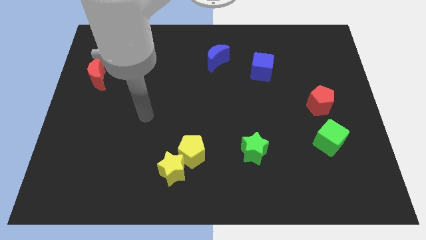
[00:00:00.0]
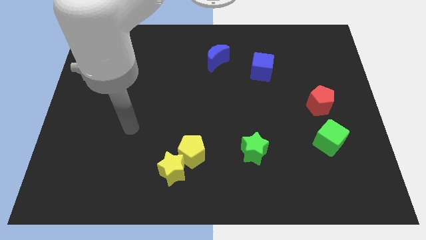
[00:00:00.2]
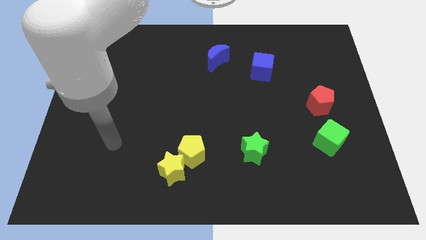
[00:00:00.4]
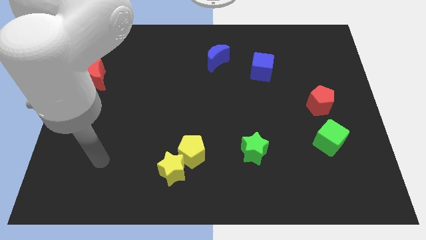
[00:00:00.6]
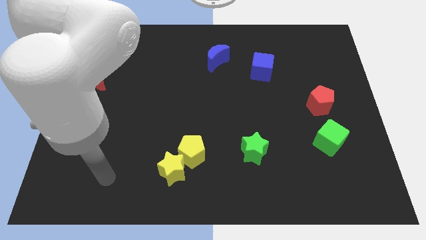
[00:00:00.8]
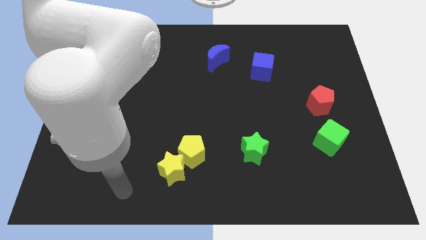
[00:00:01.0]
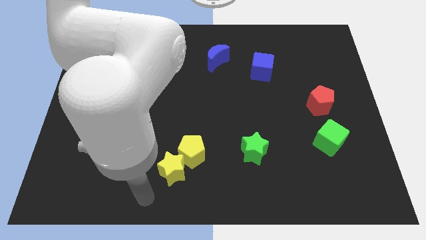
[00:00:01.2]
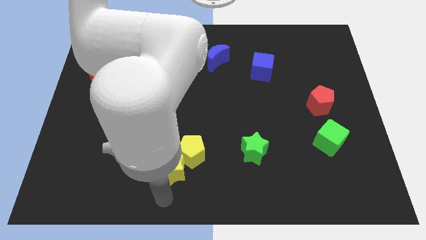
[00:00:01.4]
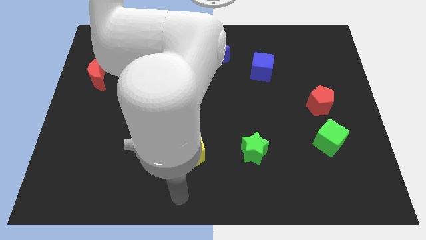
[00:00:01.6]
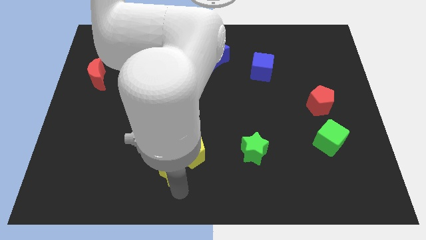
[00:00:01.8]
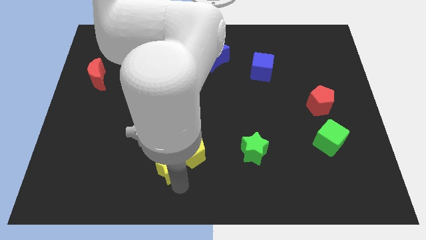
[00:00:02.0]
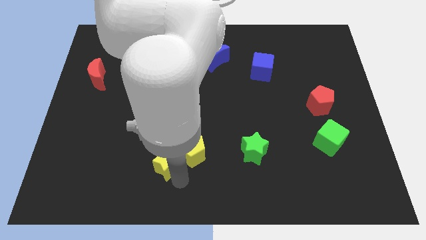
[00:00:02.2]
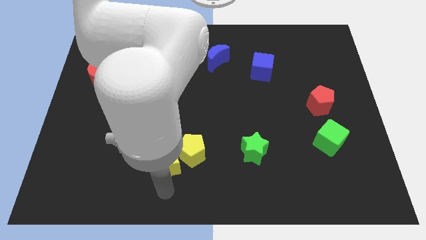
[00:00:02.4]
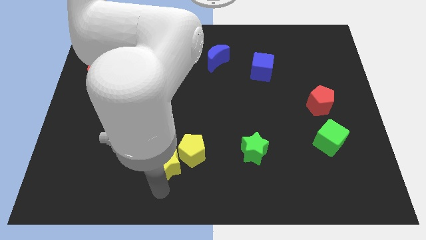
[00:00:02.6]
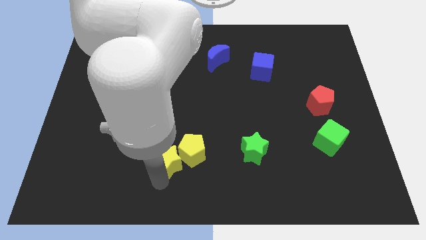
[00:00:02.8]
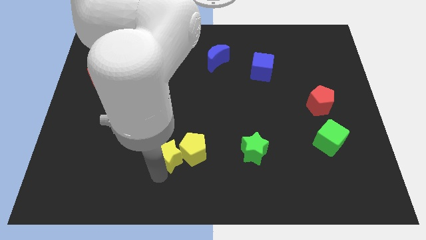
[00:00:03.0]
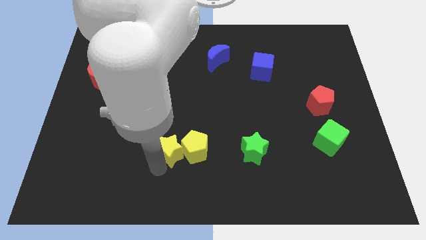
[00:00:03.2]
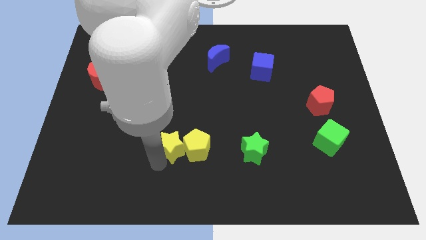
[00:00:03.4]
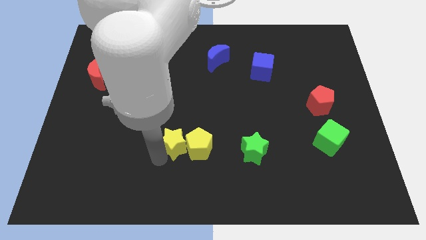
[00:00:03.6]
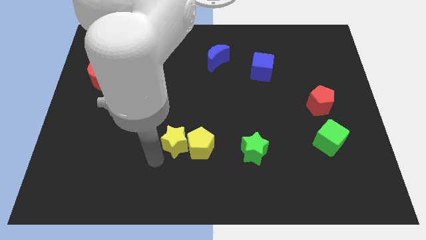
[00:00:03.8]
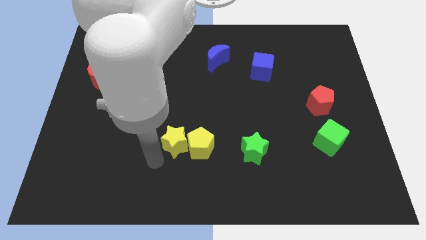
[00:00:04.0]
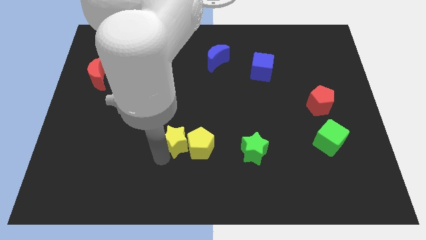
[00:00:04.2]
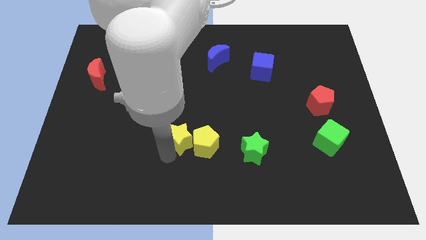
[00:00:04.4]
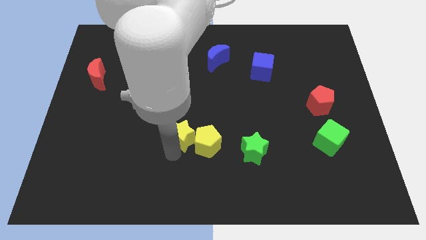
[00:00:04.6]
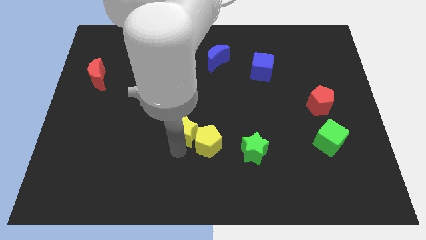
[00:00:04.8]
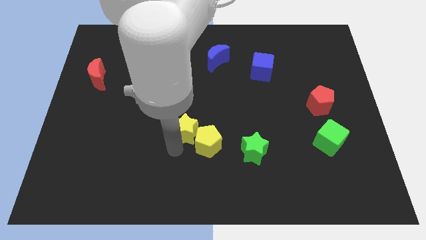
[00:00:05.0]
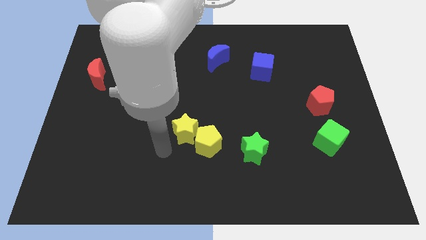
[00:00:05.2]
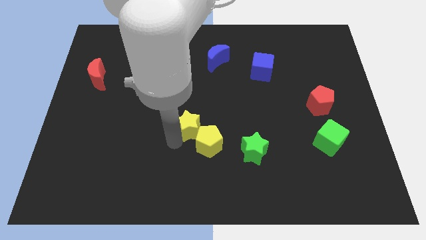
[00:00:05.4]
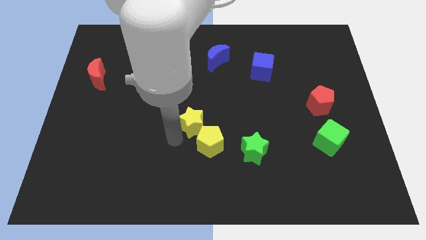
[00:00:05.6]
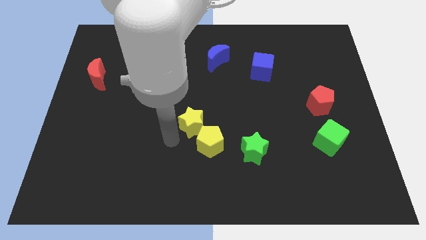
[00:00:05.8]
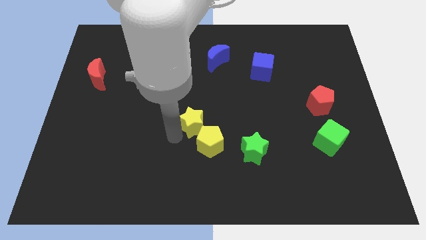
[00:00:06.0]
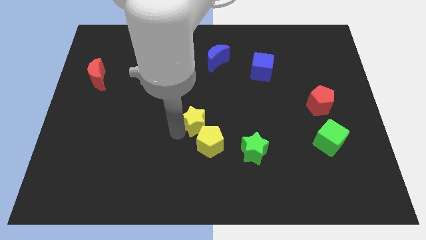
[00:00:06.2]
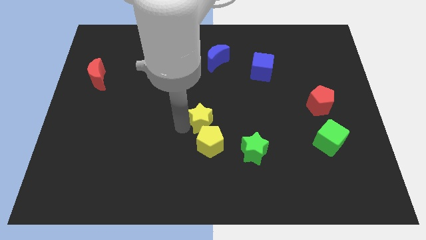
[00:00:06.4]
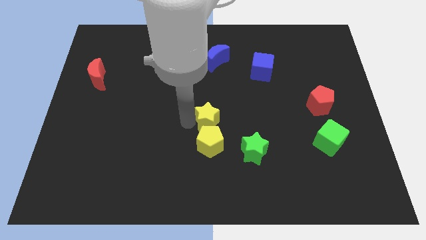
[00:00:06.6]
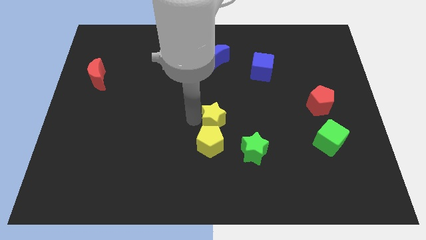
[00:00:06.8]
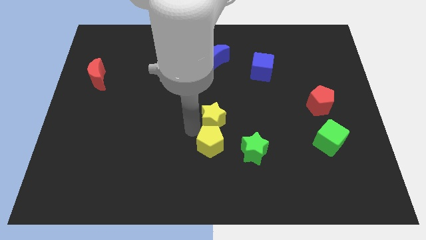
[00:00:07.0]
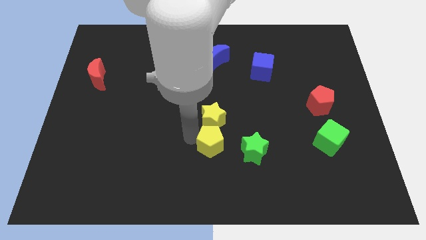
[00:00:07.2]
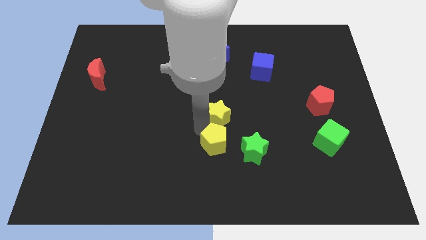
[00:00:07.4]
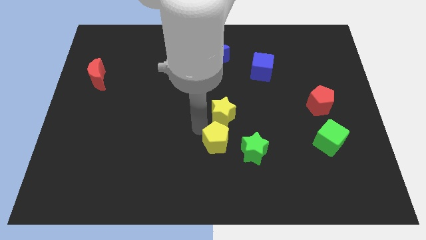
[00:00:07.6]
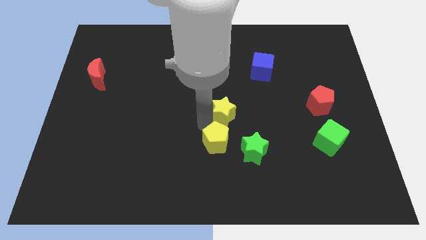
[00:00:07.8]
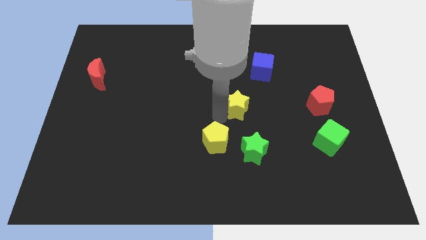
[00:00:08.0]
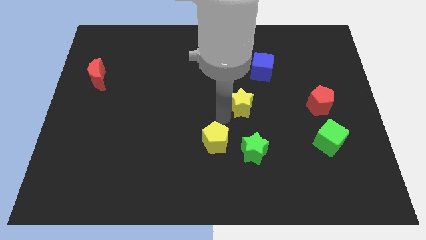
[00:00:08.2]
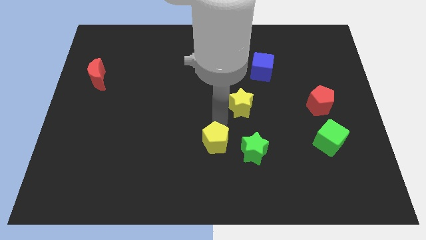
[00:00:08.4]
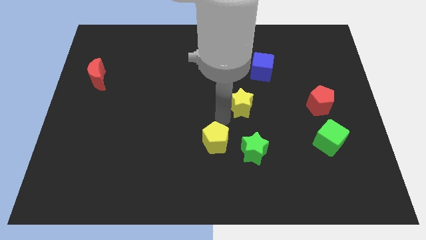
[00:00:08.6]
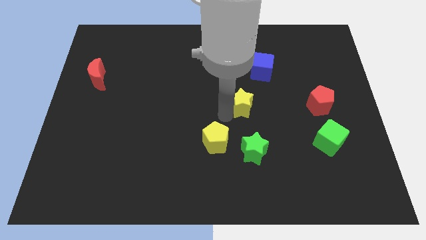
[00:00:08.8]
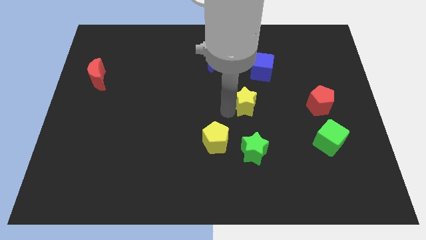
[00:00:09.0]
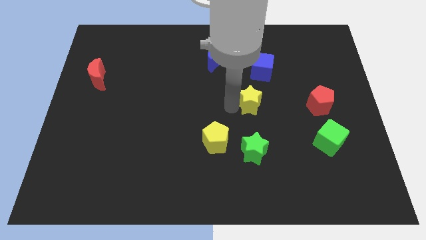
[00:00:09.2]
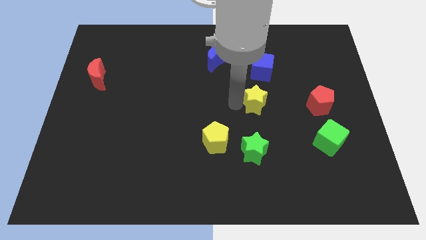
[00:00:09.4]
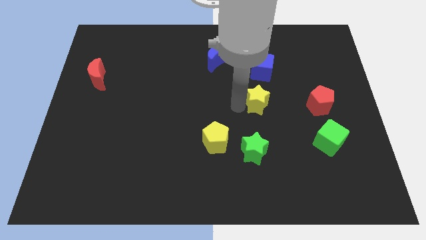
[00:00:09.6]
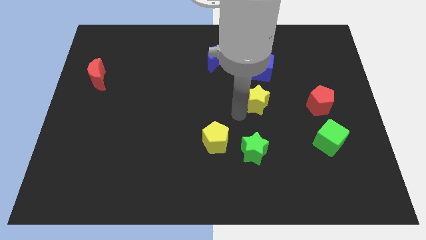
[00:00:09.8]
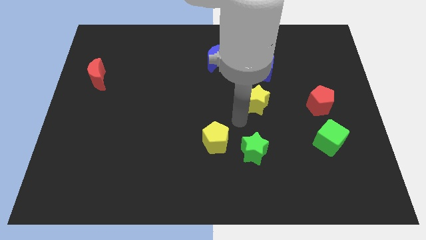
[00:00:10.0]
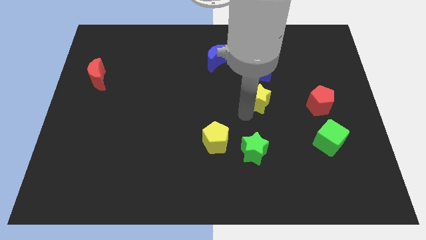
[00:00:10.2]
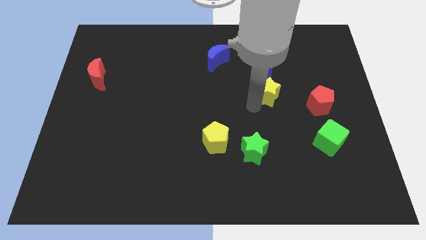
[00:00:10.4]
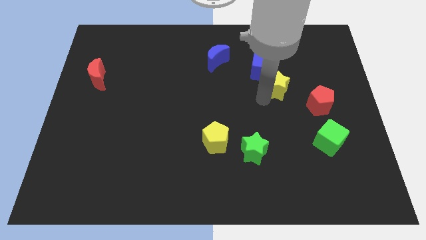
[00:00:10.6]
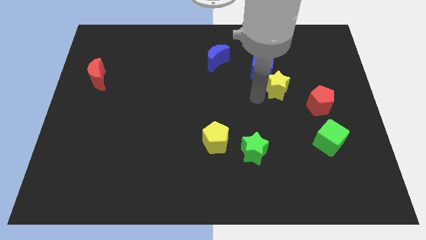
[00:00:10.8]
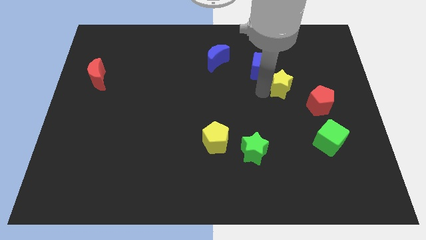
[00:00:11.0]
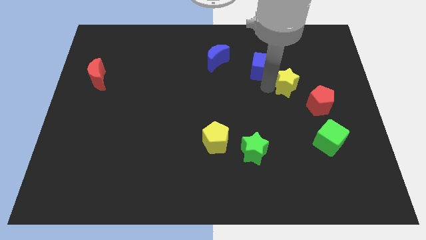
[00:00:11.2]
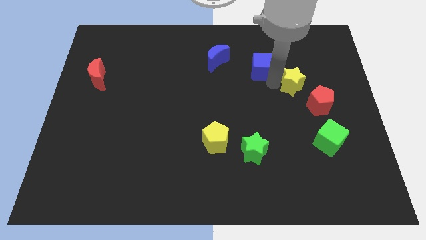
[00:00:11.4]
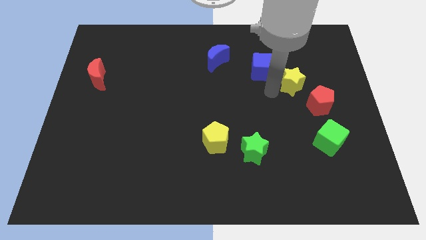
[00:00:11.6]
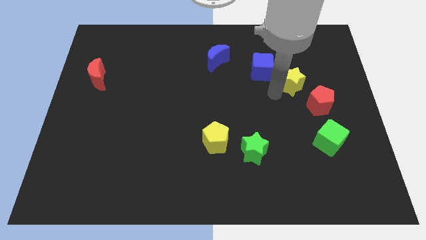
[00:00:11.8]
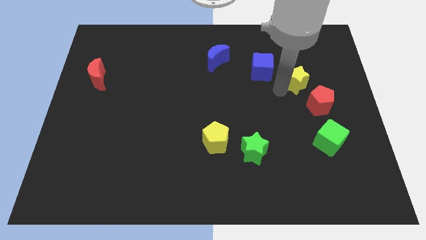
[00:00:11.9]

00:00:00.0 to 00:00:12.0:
slide the yellow star to the top of the red pentagon

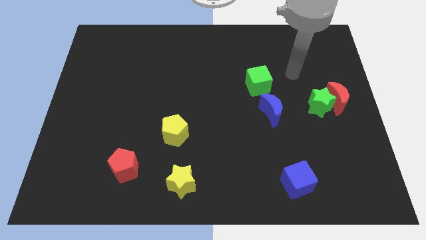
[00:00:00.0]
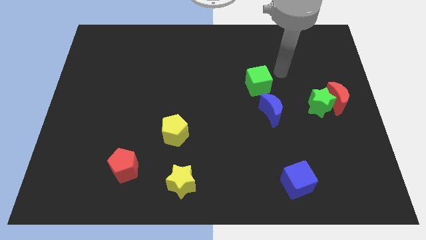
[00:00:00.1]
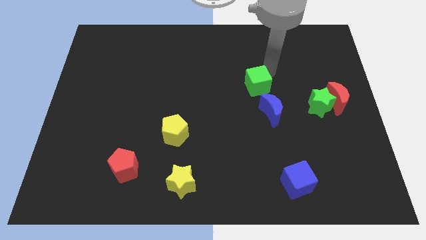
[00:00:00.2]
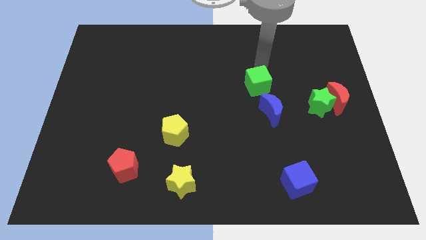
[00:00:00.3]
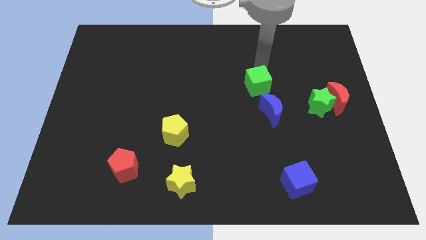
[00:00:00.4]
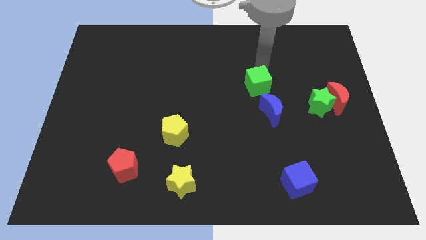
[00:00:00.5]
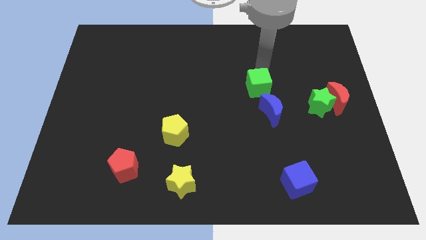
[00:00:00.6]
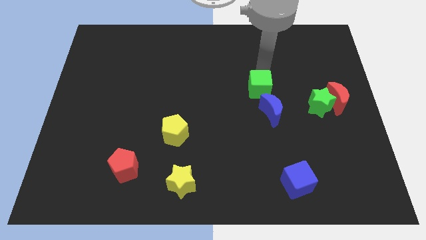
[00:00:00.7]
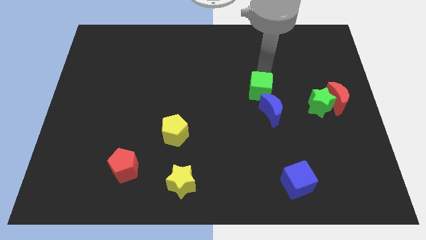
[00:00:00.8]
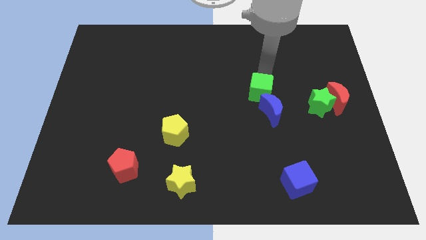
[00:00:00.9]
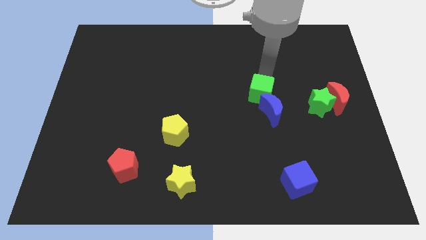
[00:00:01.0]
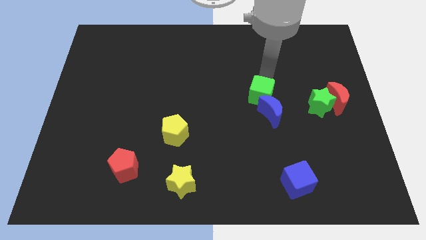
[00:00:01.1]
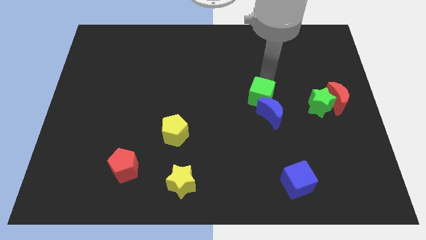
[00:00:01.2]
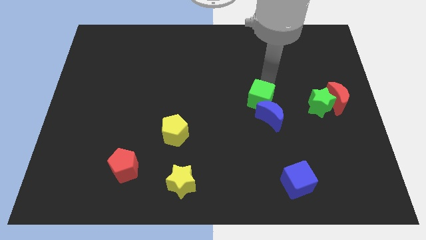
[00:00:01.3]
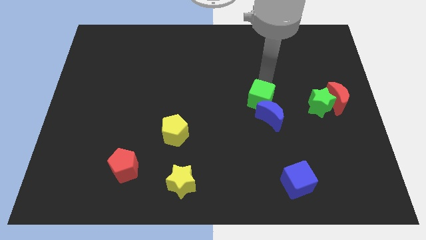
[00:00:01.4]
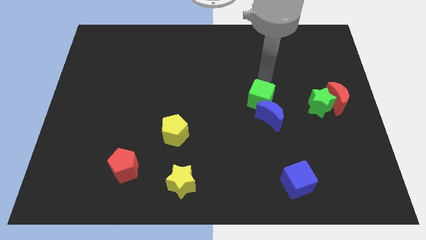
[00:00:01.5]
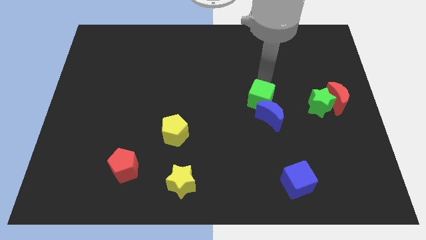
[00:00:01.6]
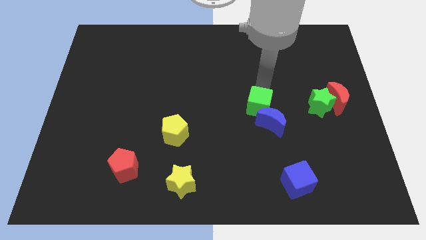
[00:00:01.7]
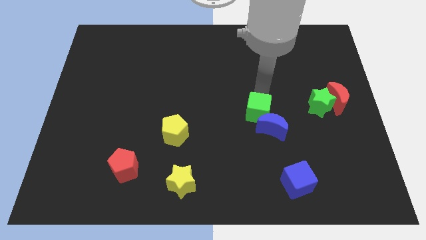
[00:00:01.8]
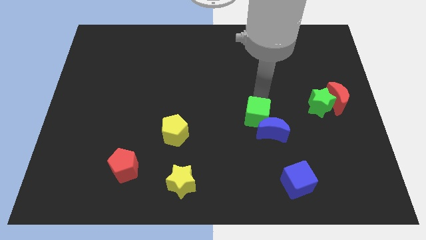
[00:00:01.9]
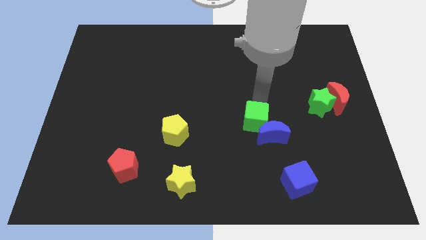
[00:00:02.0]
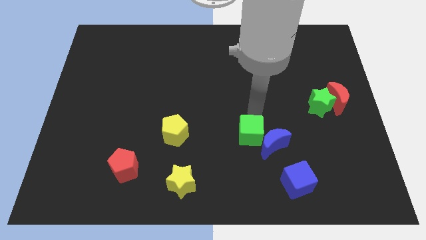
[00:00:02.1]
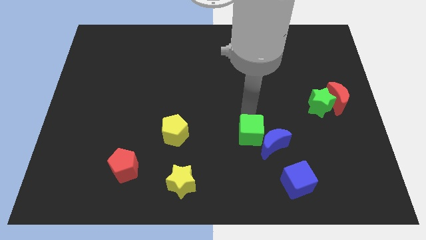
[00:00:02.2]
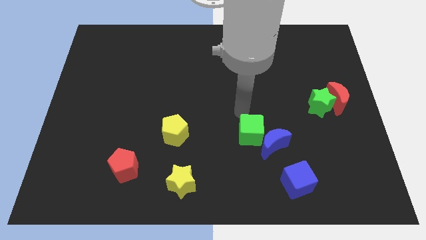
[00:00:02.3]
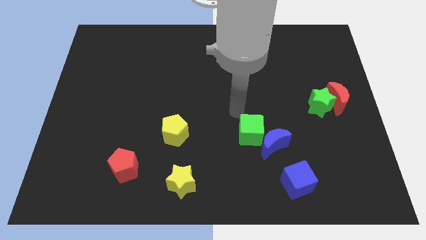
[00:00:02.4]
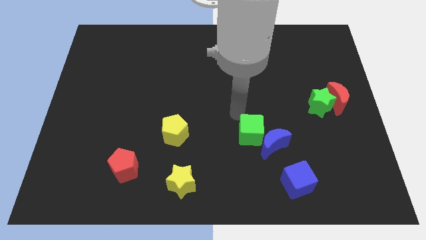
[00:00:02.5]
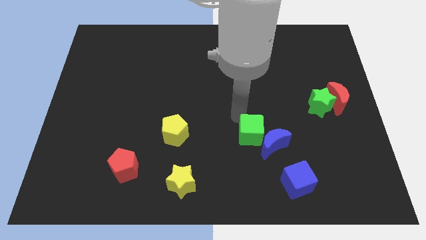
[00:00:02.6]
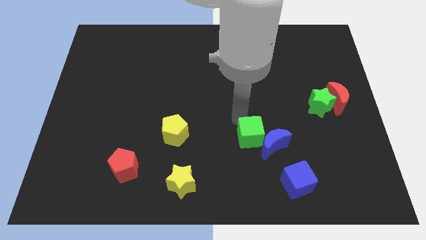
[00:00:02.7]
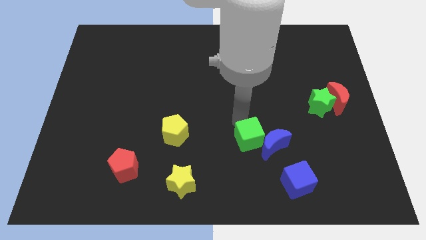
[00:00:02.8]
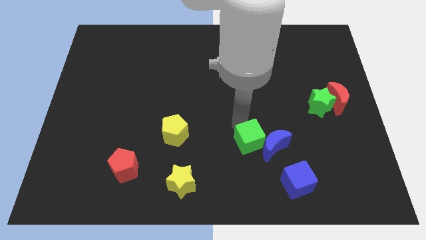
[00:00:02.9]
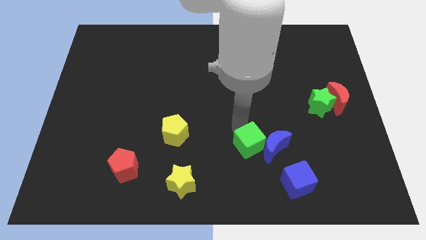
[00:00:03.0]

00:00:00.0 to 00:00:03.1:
put the green cube to the top left of the blue cube
